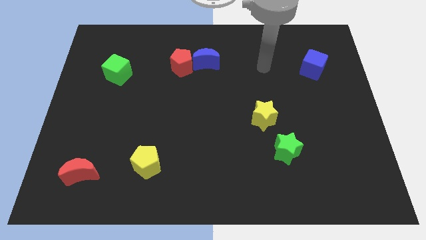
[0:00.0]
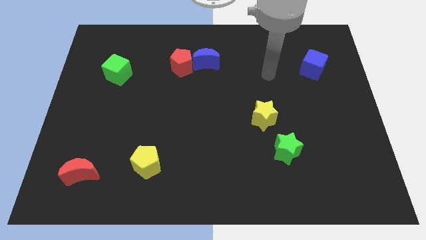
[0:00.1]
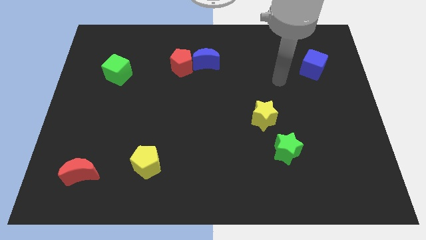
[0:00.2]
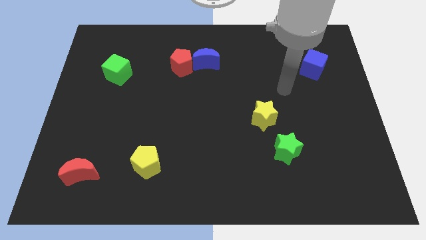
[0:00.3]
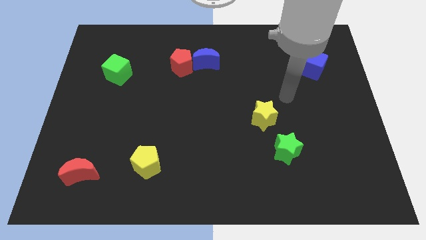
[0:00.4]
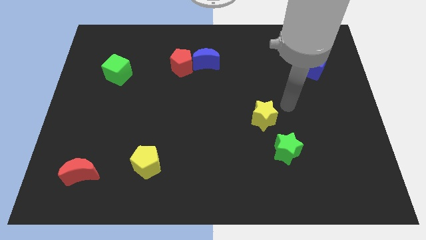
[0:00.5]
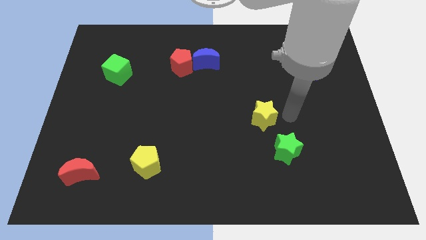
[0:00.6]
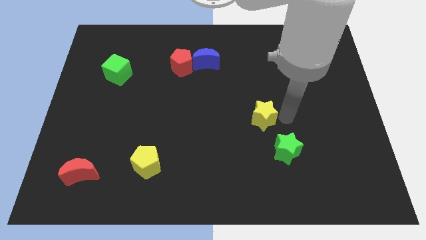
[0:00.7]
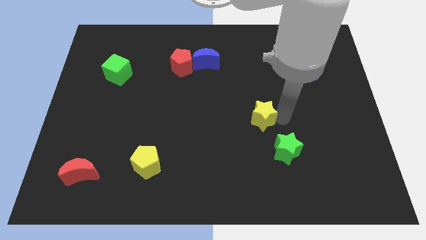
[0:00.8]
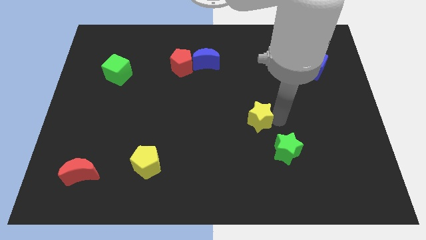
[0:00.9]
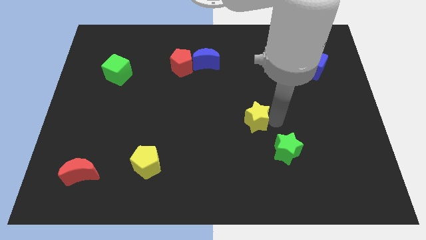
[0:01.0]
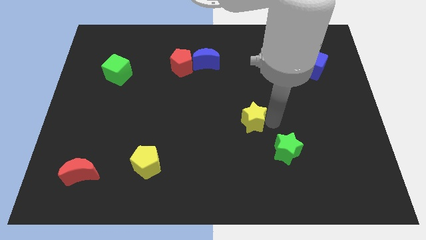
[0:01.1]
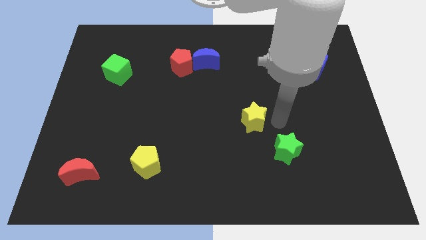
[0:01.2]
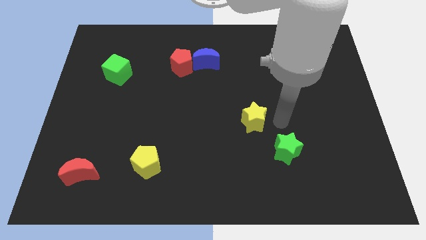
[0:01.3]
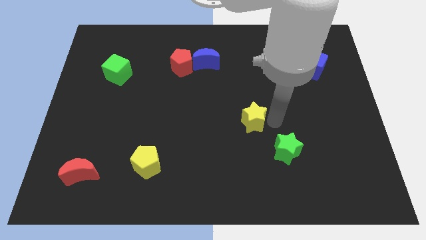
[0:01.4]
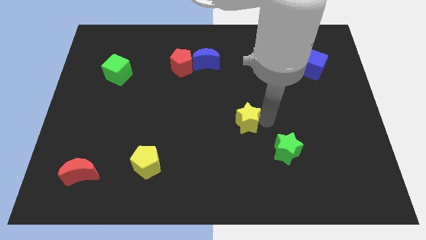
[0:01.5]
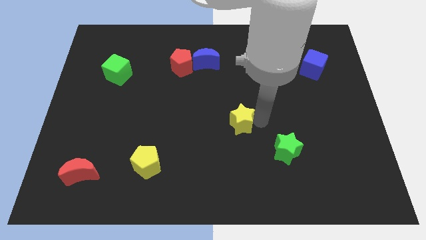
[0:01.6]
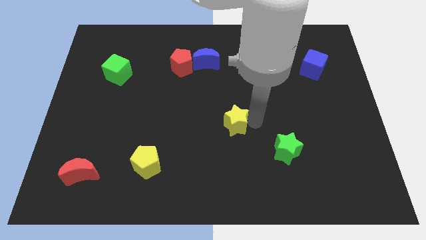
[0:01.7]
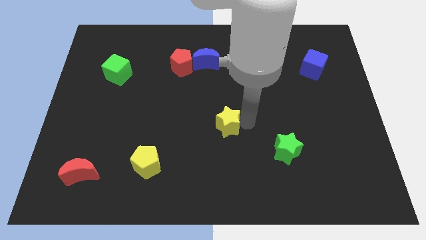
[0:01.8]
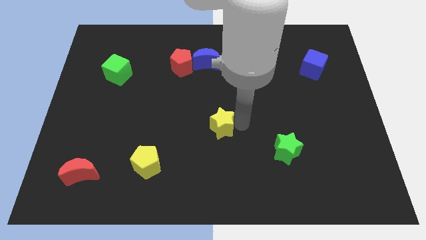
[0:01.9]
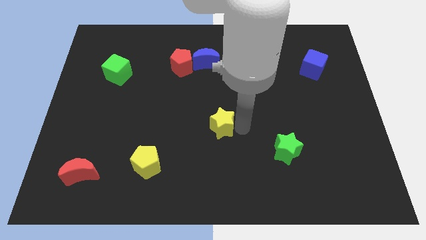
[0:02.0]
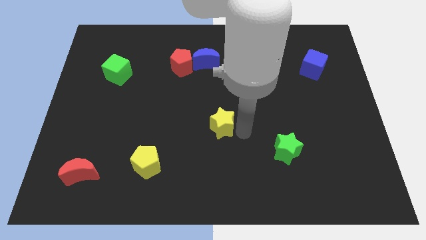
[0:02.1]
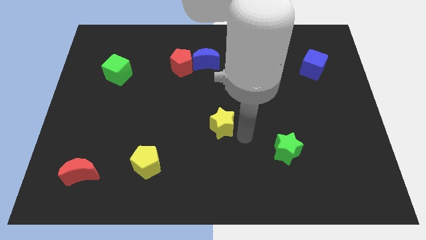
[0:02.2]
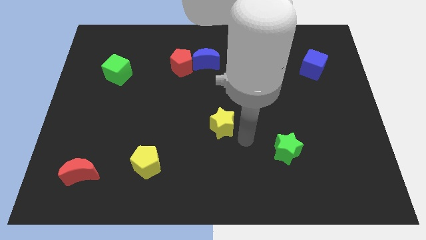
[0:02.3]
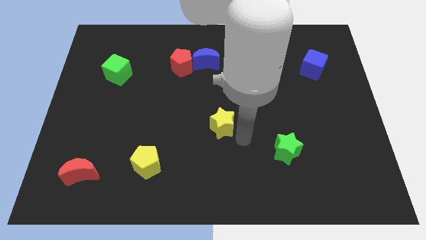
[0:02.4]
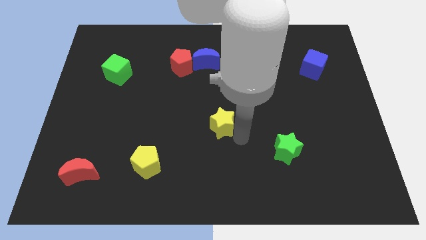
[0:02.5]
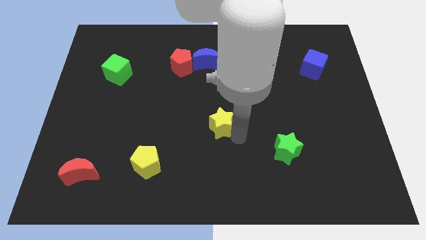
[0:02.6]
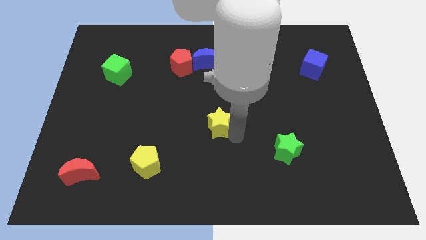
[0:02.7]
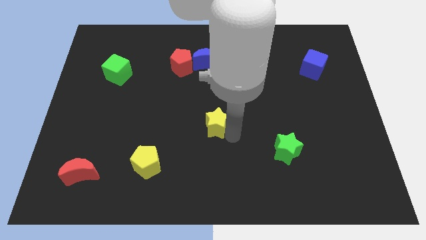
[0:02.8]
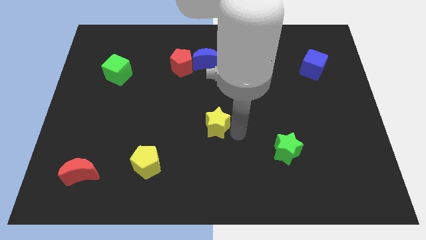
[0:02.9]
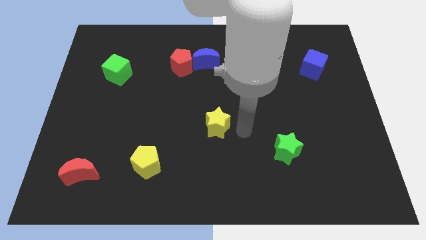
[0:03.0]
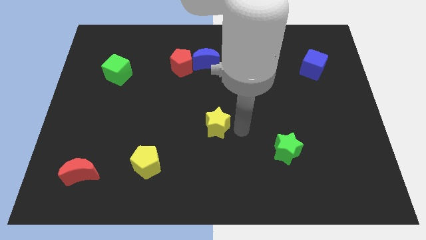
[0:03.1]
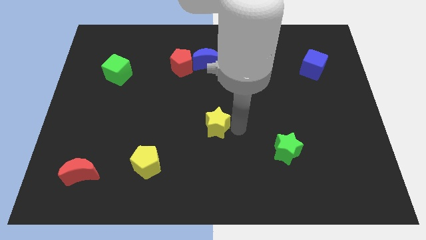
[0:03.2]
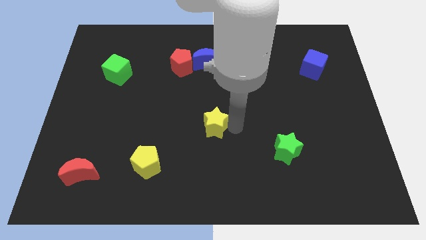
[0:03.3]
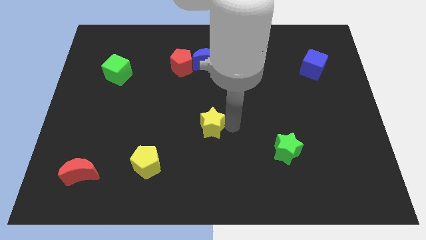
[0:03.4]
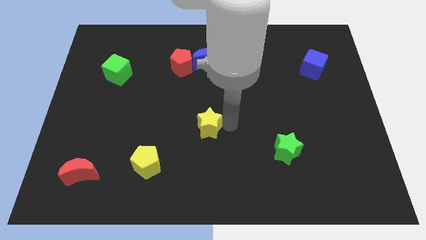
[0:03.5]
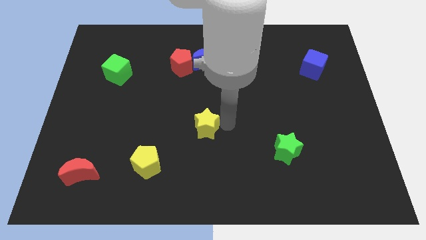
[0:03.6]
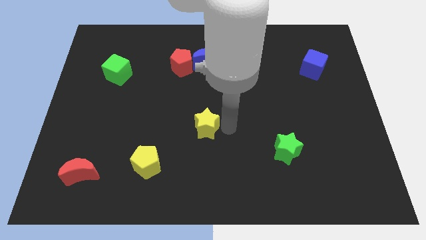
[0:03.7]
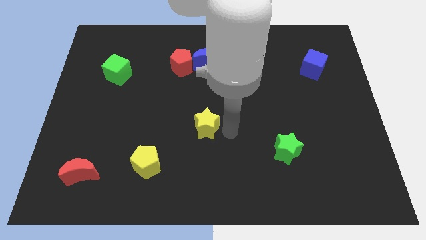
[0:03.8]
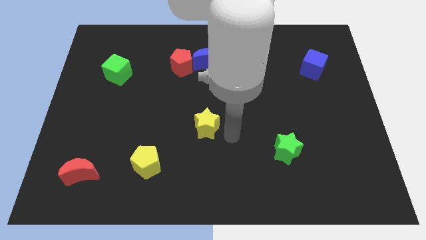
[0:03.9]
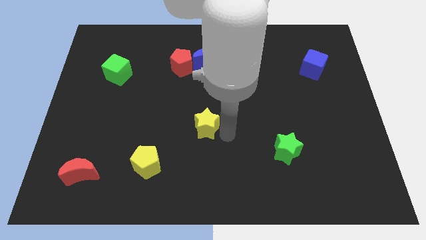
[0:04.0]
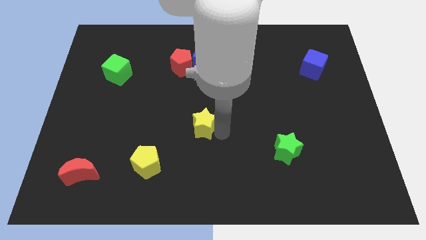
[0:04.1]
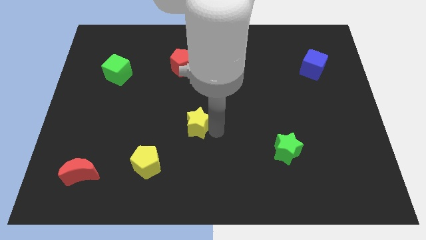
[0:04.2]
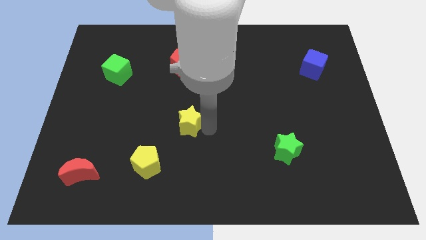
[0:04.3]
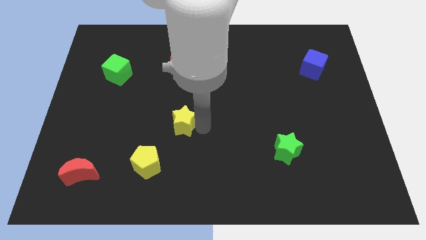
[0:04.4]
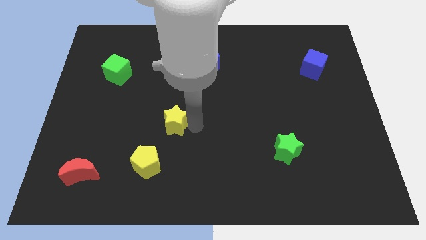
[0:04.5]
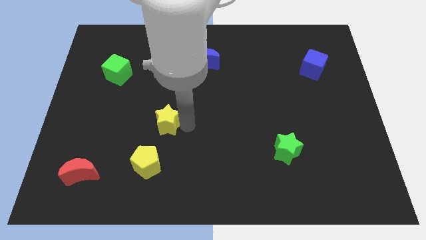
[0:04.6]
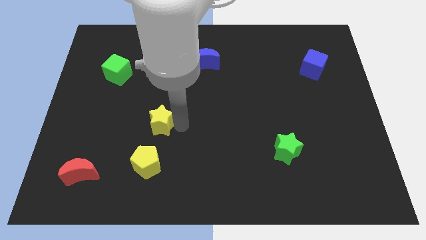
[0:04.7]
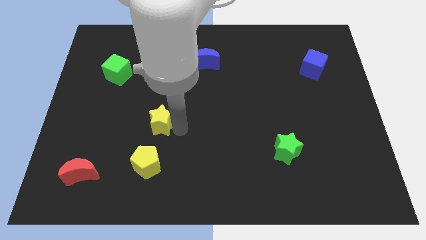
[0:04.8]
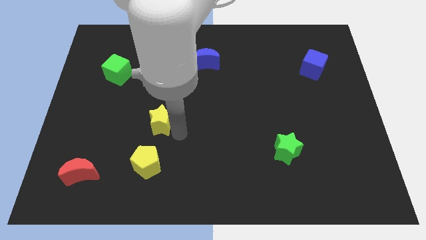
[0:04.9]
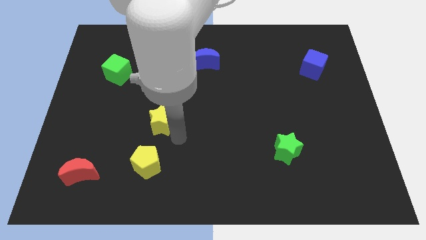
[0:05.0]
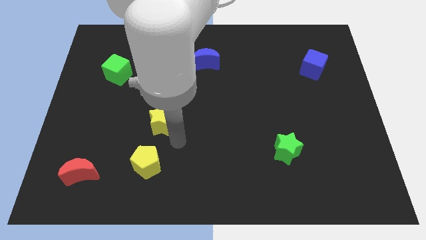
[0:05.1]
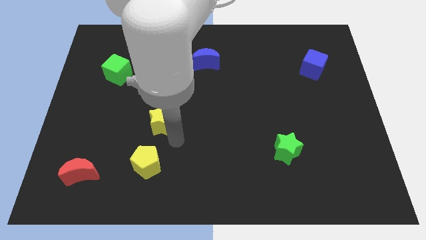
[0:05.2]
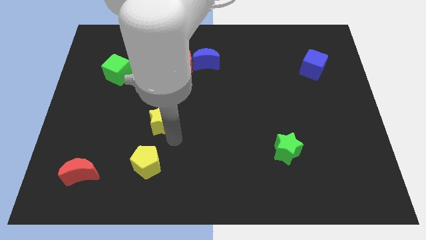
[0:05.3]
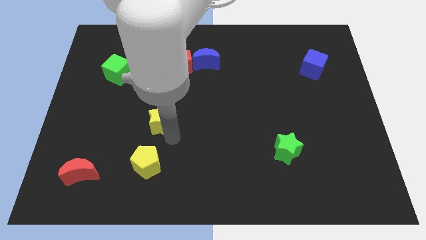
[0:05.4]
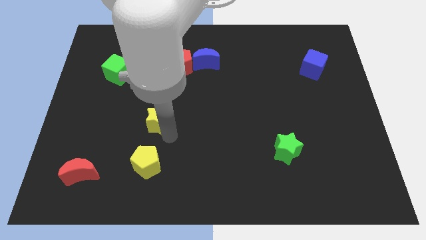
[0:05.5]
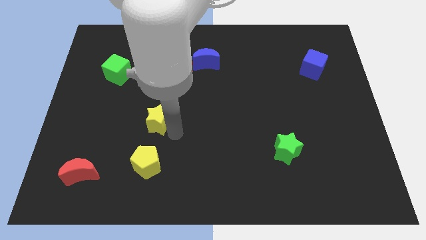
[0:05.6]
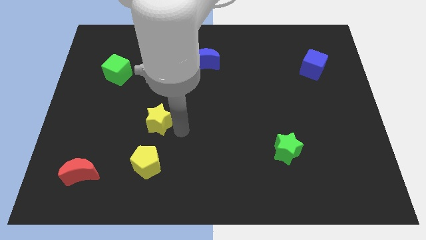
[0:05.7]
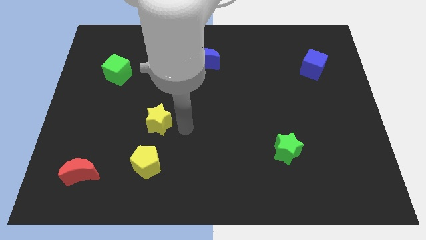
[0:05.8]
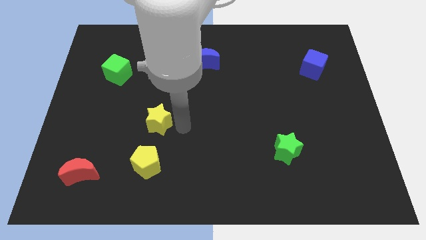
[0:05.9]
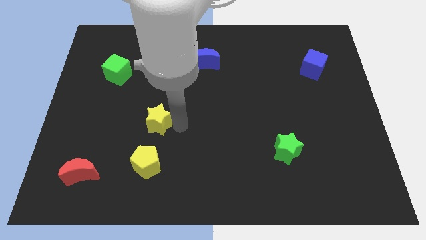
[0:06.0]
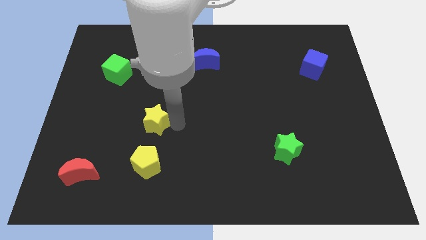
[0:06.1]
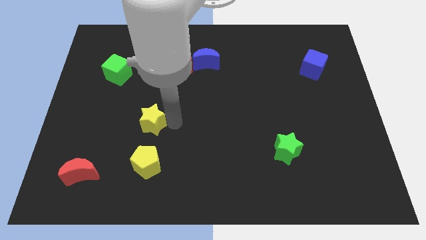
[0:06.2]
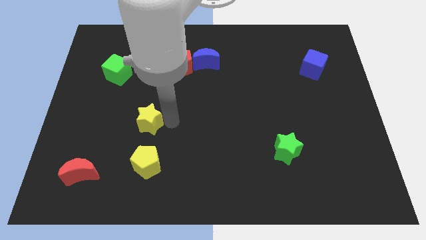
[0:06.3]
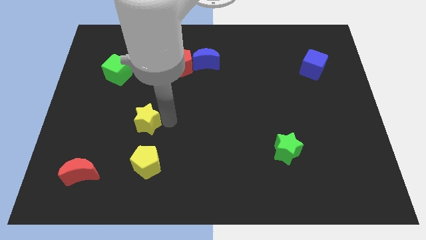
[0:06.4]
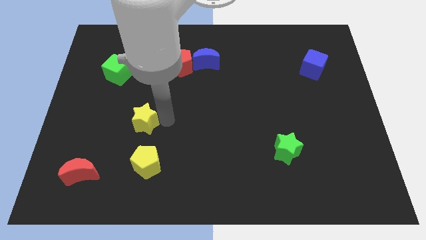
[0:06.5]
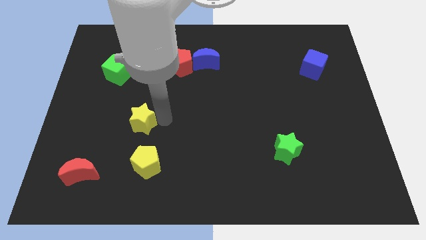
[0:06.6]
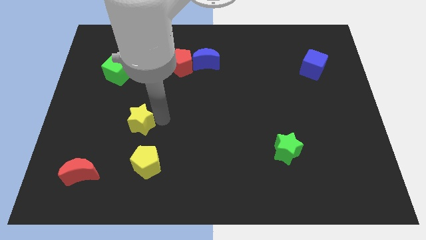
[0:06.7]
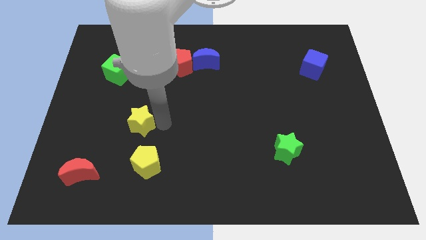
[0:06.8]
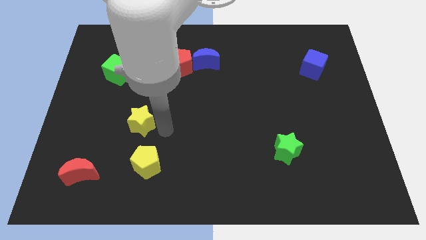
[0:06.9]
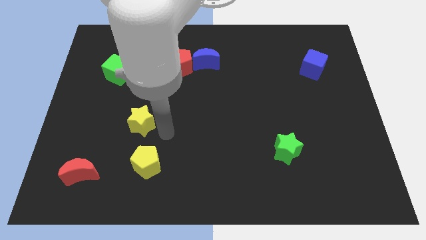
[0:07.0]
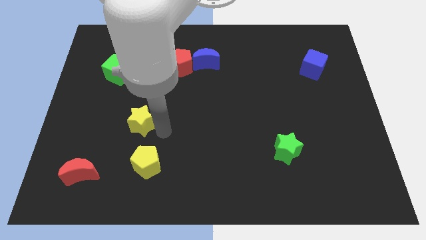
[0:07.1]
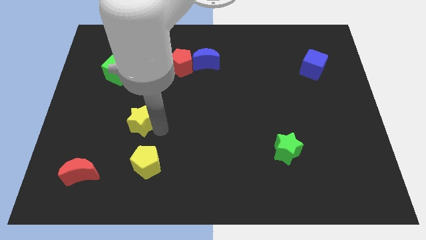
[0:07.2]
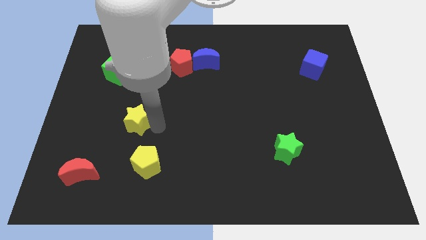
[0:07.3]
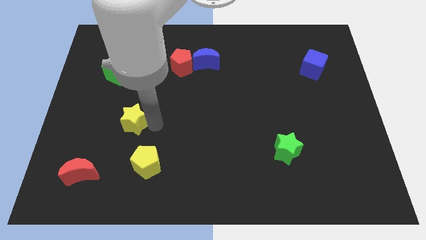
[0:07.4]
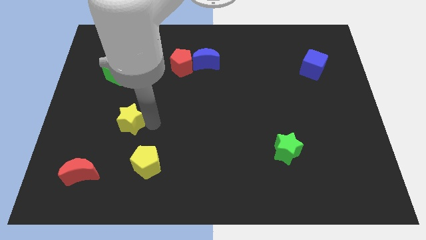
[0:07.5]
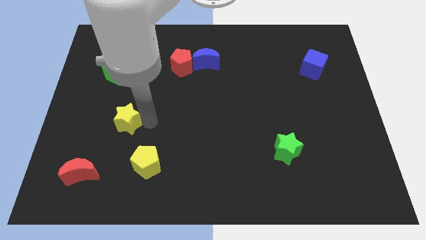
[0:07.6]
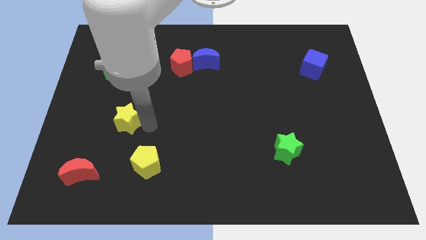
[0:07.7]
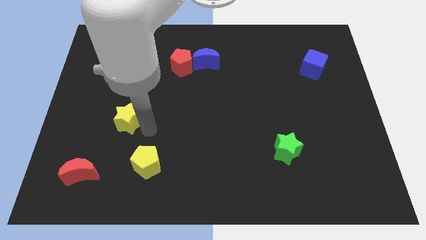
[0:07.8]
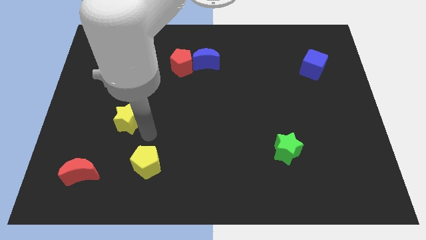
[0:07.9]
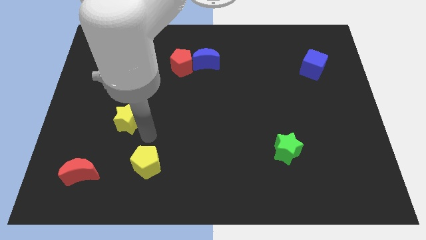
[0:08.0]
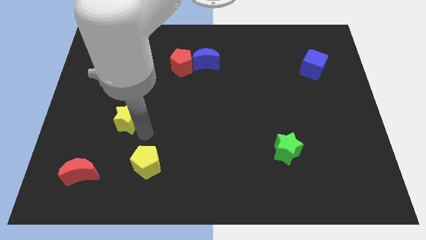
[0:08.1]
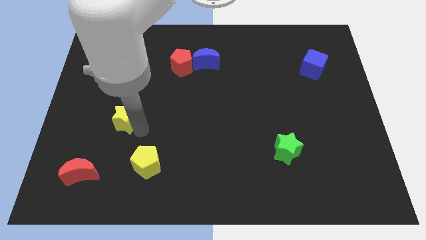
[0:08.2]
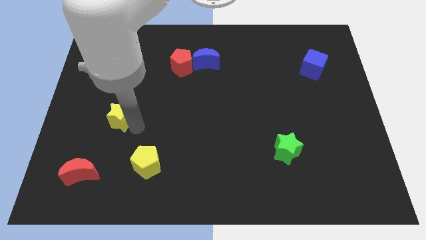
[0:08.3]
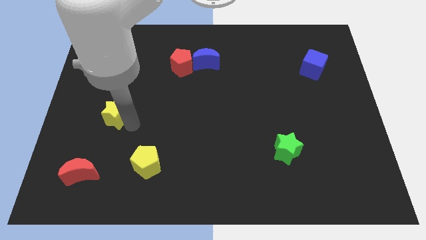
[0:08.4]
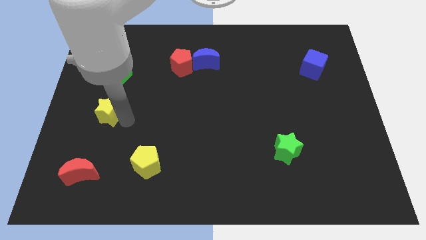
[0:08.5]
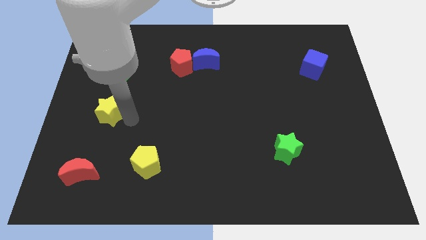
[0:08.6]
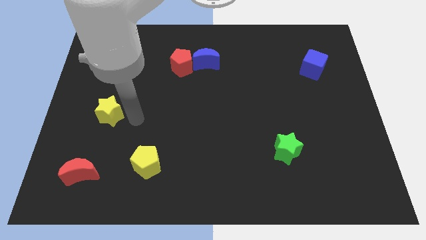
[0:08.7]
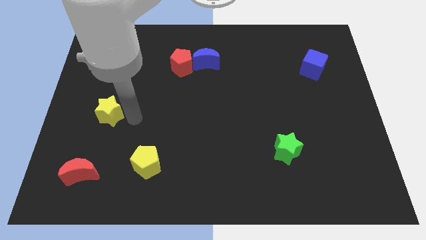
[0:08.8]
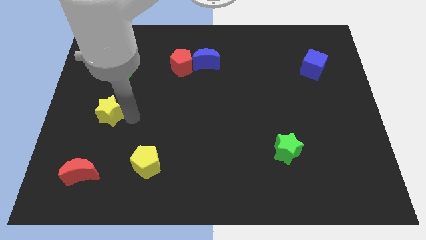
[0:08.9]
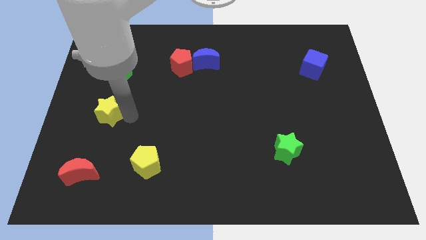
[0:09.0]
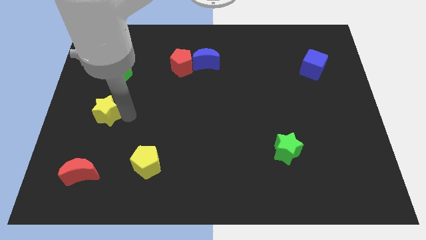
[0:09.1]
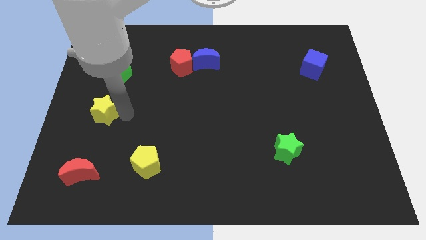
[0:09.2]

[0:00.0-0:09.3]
push the yellow star to the left side of the board
